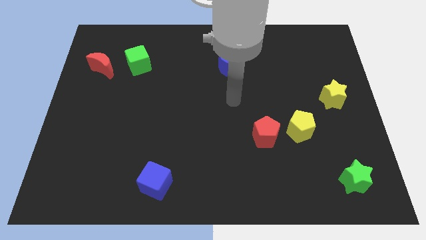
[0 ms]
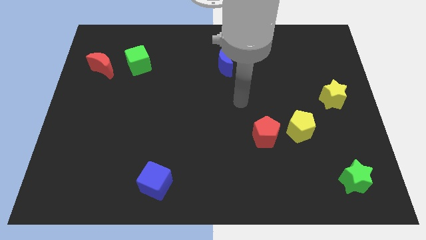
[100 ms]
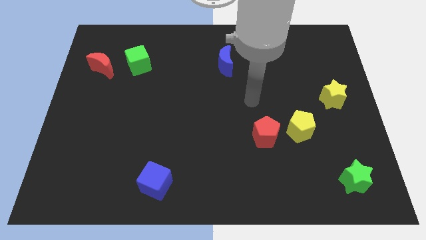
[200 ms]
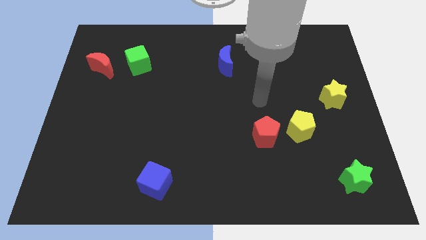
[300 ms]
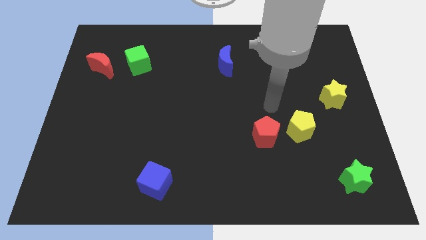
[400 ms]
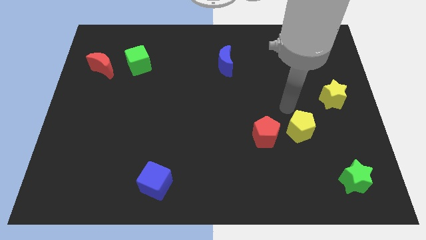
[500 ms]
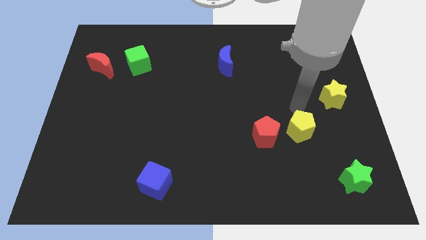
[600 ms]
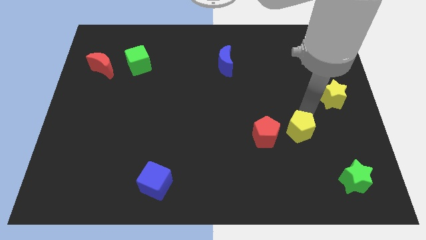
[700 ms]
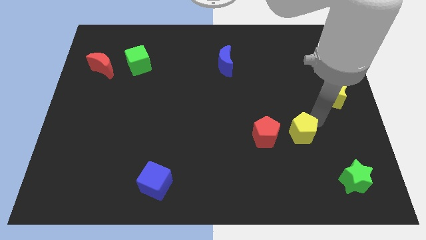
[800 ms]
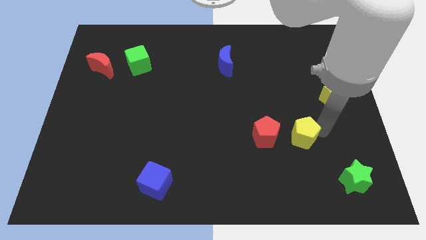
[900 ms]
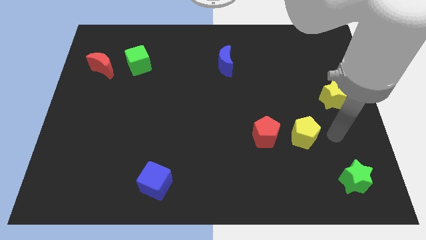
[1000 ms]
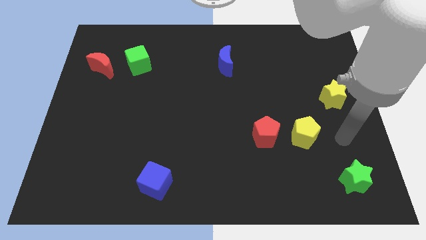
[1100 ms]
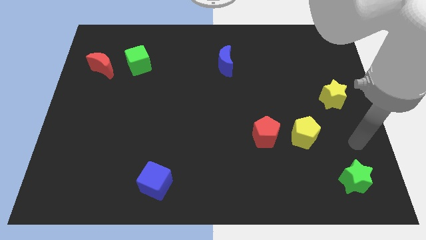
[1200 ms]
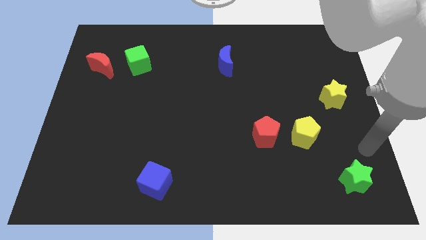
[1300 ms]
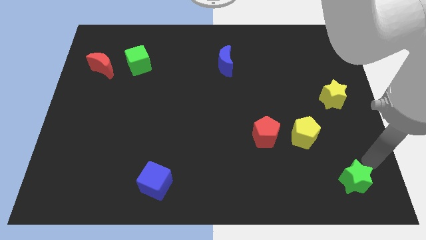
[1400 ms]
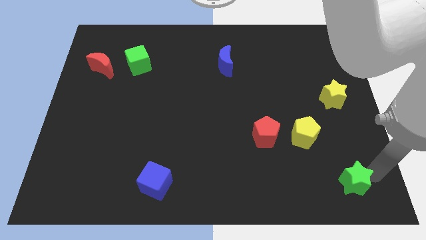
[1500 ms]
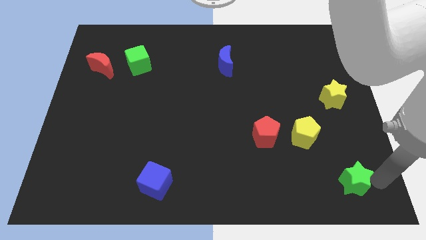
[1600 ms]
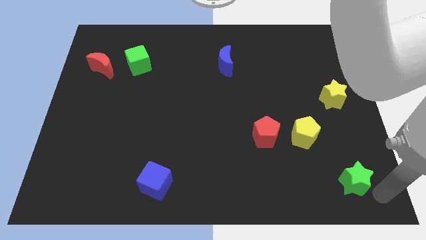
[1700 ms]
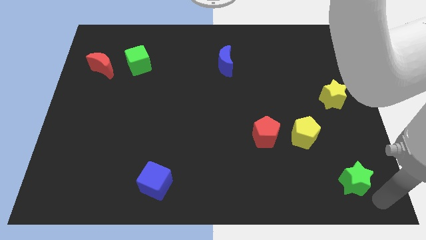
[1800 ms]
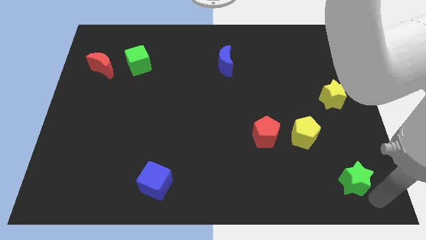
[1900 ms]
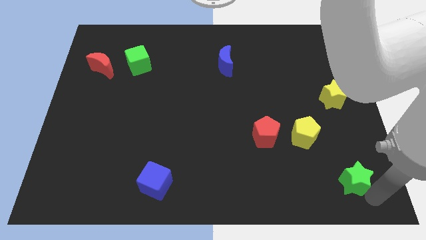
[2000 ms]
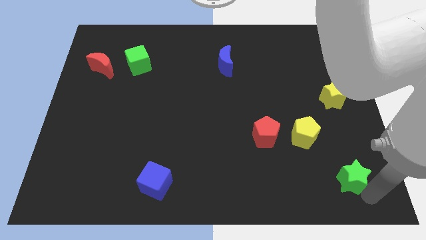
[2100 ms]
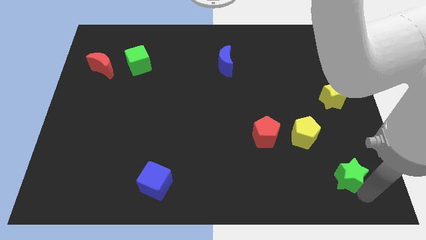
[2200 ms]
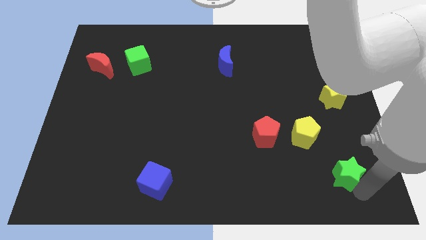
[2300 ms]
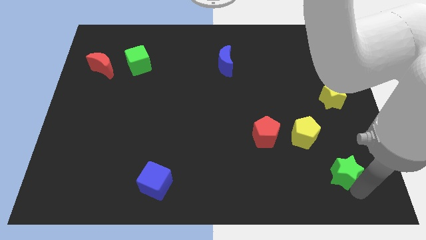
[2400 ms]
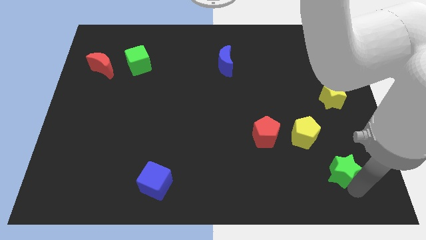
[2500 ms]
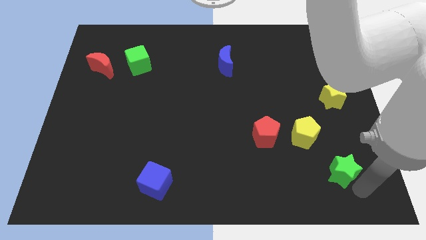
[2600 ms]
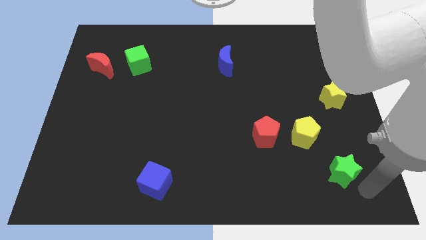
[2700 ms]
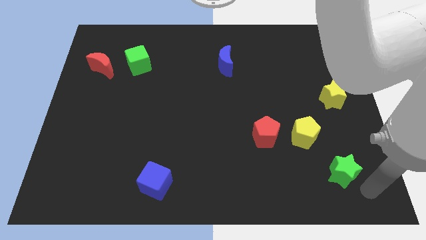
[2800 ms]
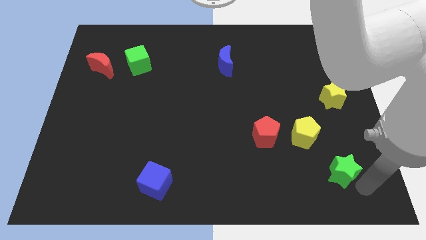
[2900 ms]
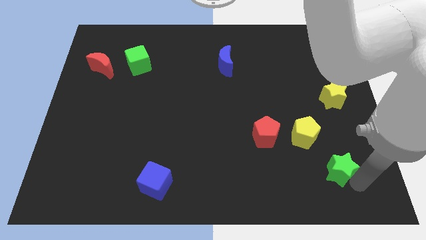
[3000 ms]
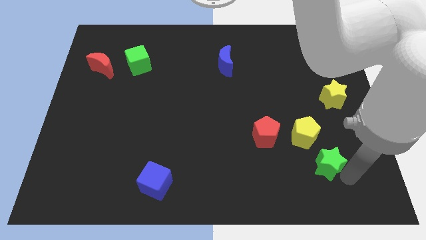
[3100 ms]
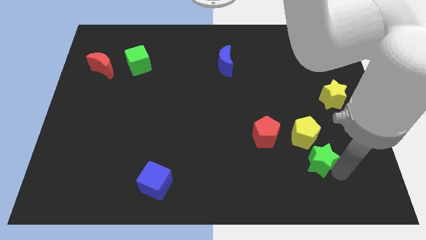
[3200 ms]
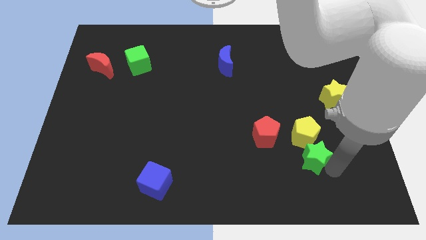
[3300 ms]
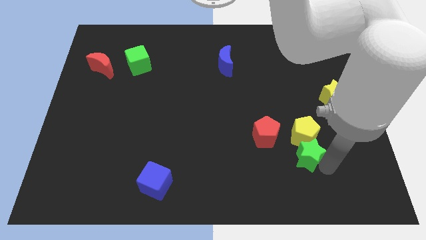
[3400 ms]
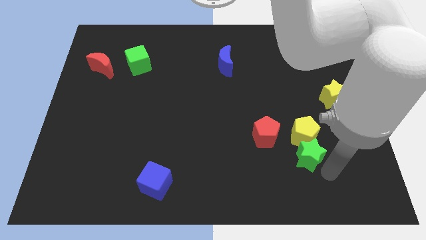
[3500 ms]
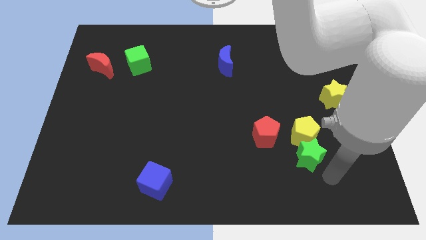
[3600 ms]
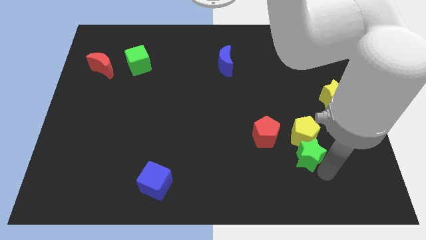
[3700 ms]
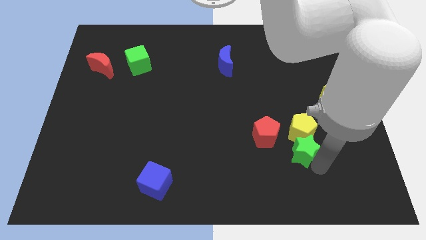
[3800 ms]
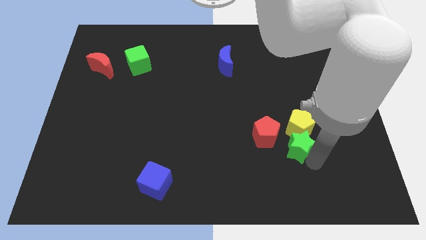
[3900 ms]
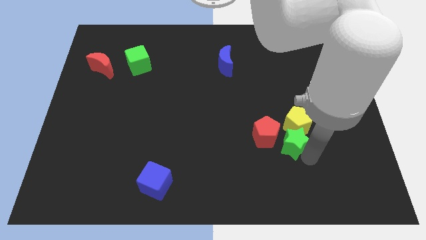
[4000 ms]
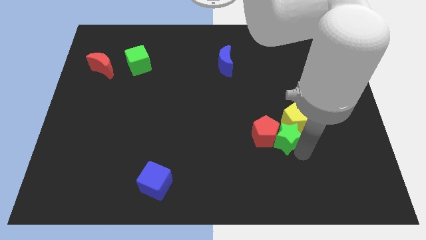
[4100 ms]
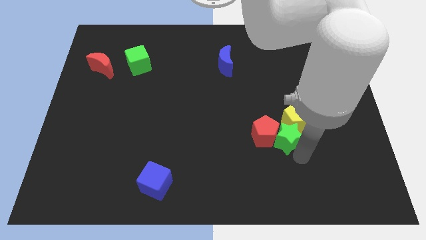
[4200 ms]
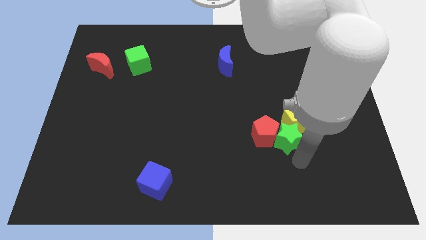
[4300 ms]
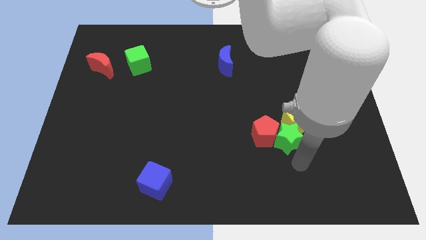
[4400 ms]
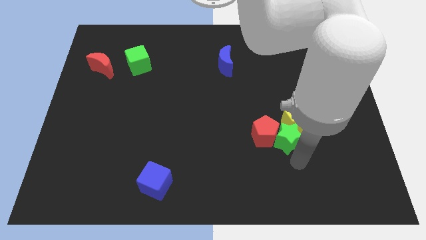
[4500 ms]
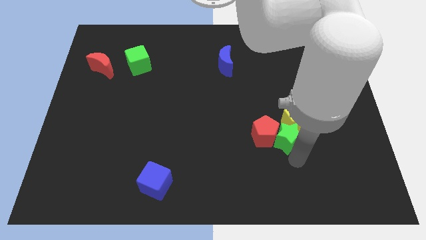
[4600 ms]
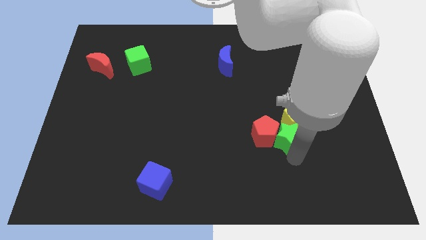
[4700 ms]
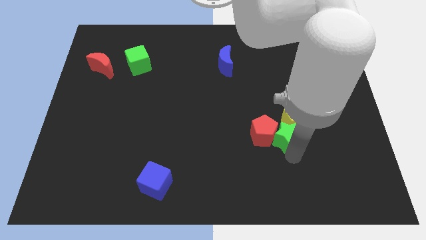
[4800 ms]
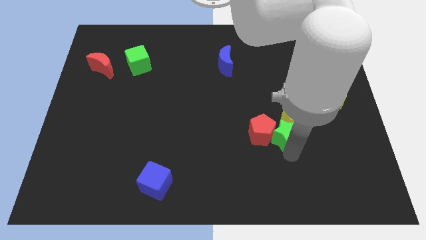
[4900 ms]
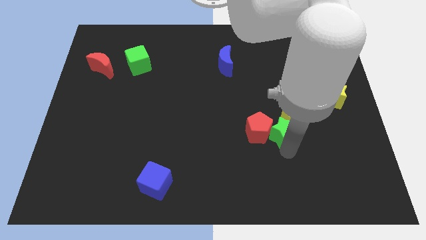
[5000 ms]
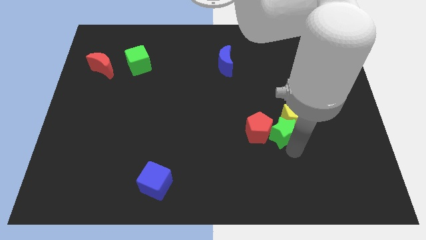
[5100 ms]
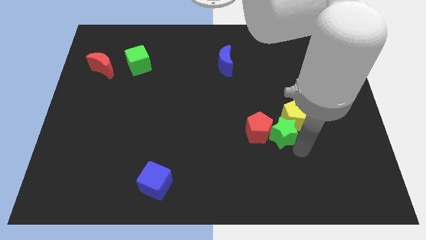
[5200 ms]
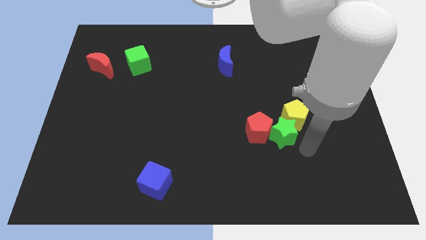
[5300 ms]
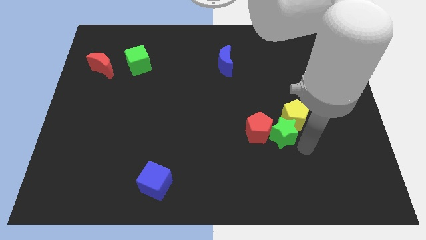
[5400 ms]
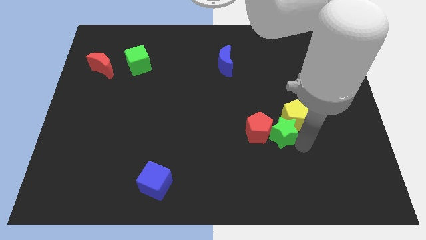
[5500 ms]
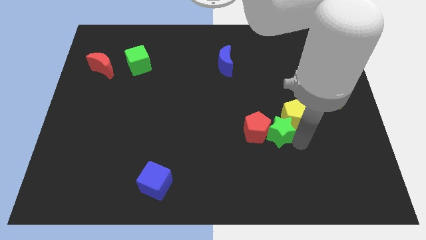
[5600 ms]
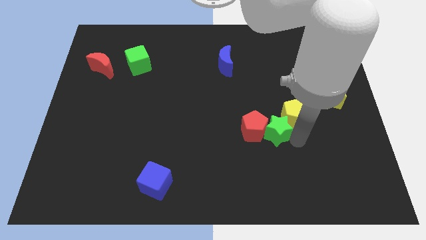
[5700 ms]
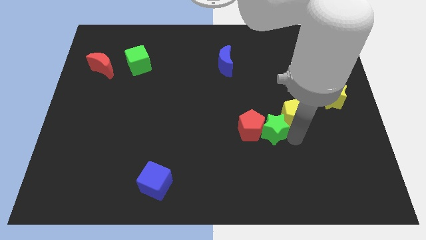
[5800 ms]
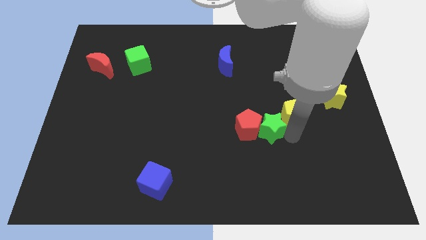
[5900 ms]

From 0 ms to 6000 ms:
move the green star upwards and then left

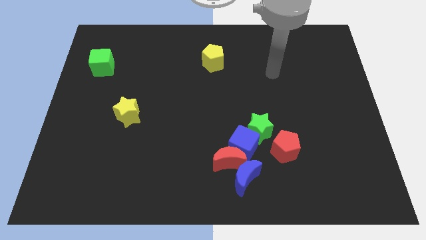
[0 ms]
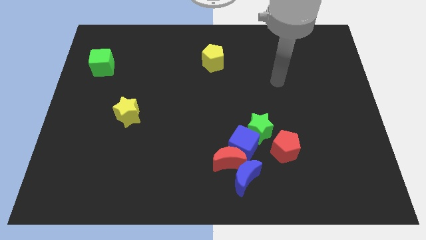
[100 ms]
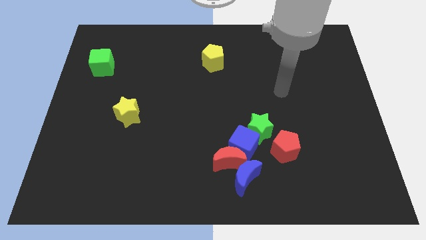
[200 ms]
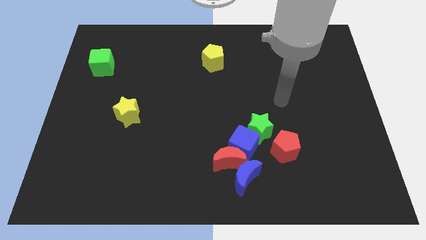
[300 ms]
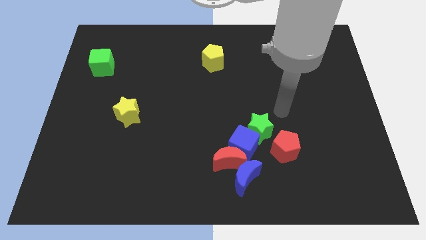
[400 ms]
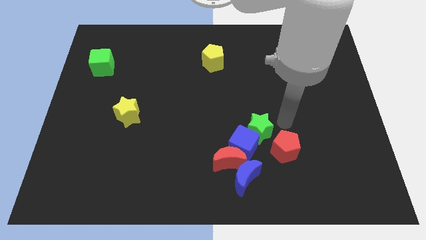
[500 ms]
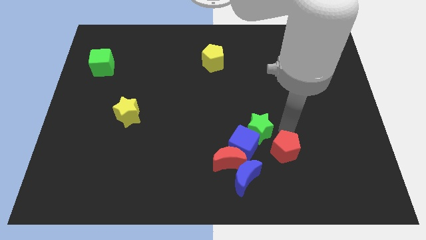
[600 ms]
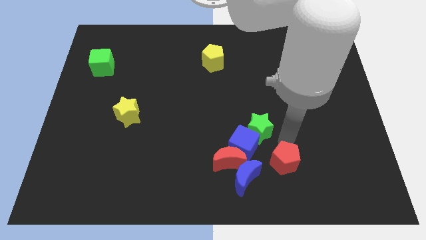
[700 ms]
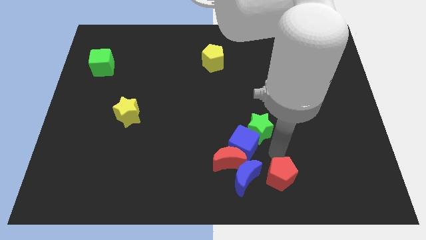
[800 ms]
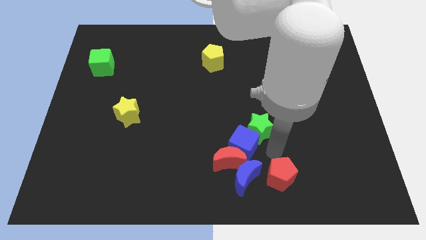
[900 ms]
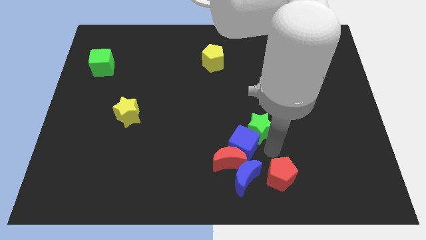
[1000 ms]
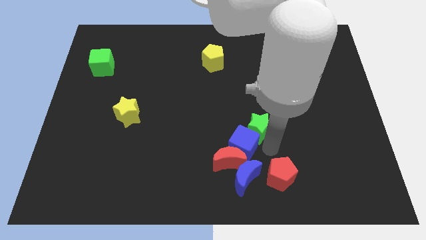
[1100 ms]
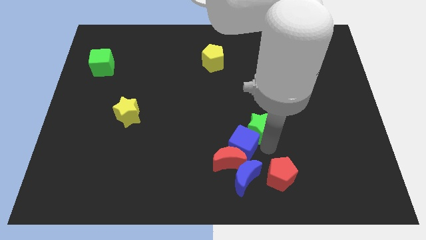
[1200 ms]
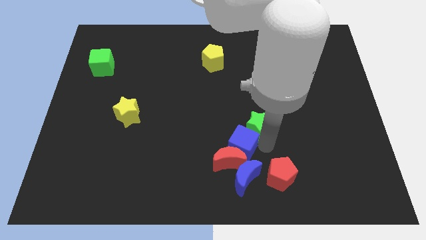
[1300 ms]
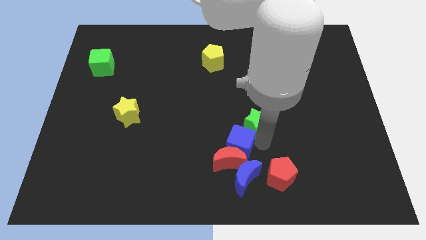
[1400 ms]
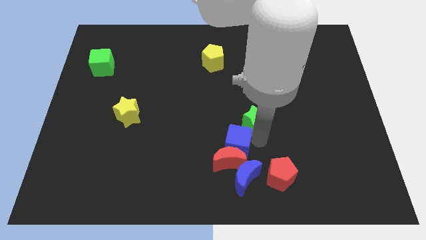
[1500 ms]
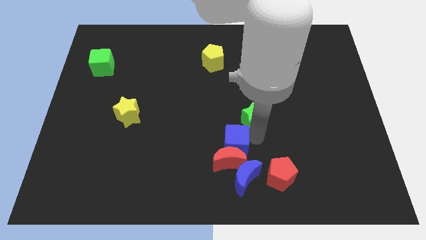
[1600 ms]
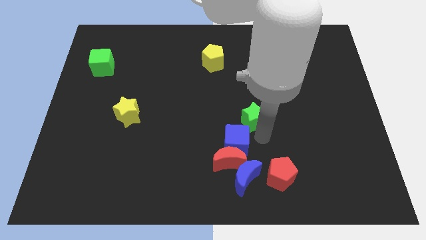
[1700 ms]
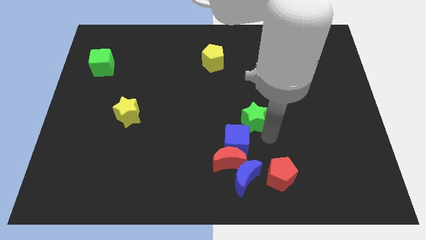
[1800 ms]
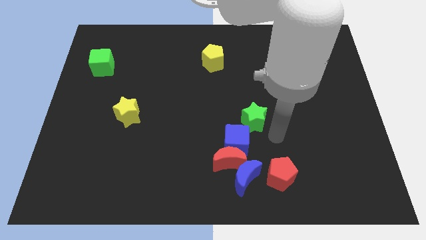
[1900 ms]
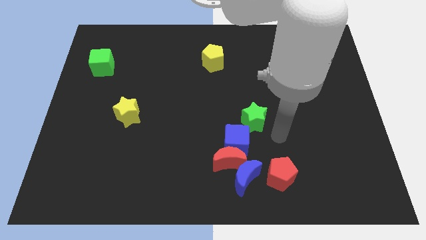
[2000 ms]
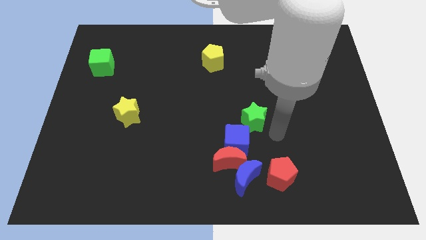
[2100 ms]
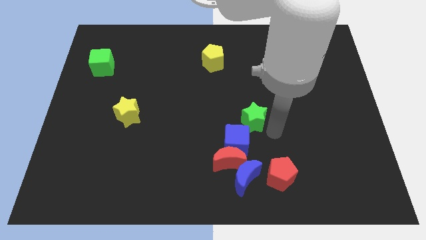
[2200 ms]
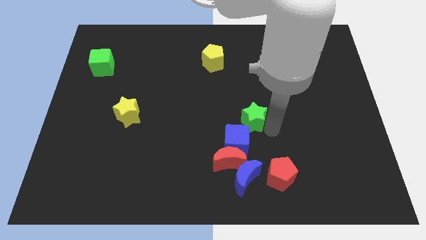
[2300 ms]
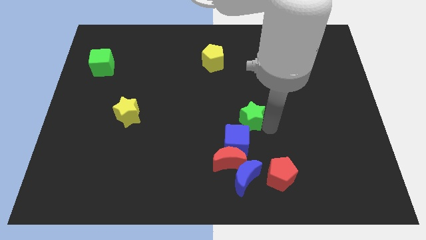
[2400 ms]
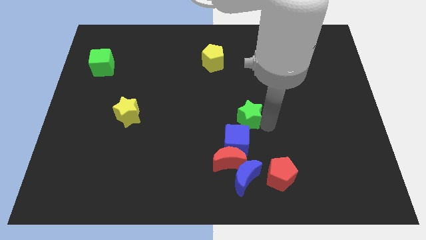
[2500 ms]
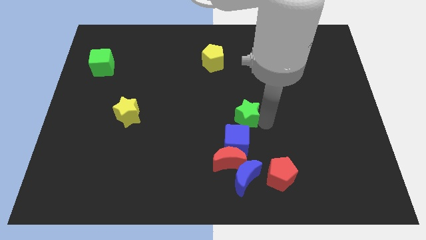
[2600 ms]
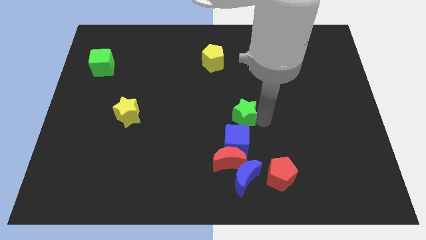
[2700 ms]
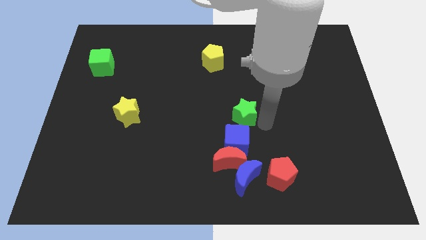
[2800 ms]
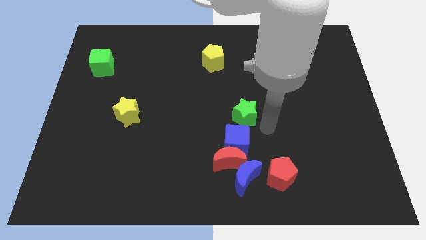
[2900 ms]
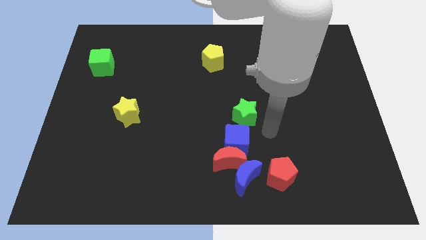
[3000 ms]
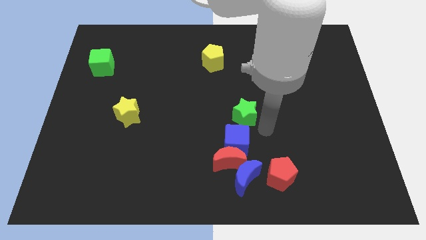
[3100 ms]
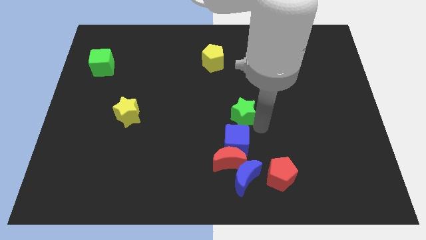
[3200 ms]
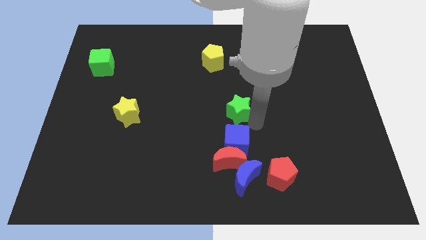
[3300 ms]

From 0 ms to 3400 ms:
move the green star a bit upwards and to the left
